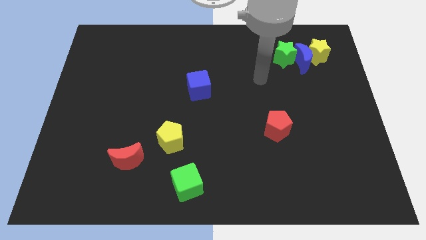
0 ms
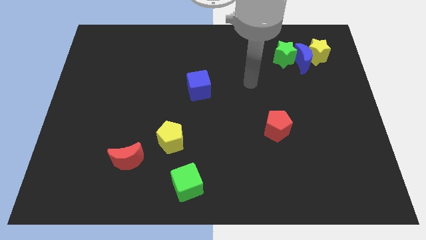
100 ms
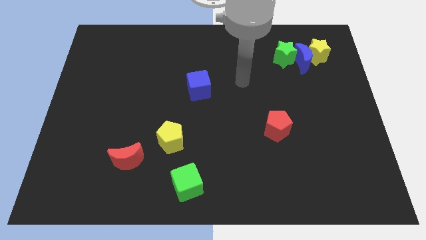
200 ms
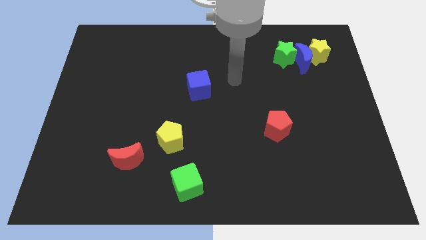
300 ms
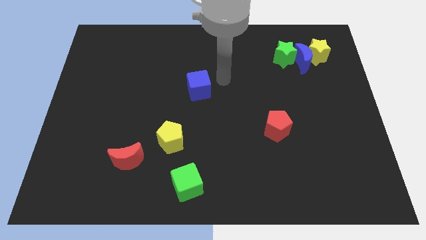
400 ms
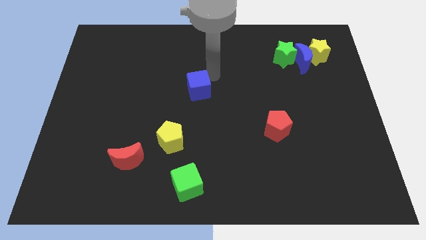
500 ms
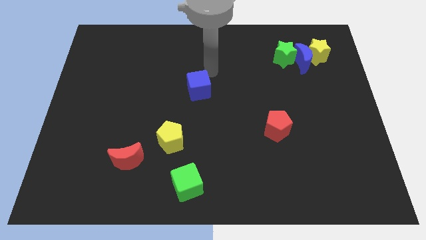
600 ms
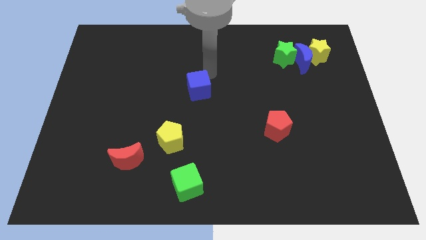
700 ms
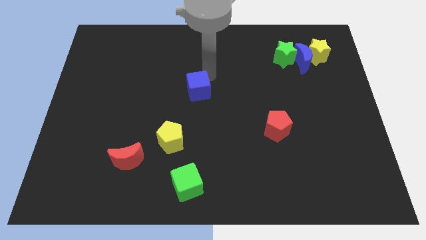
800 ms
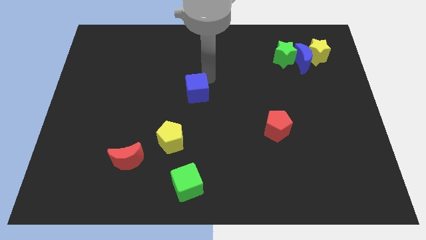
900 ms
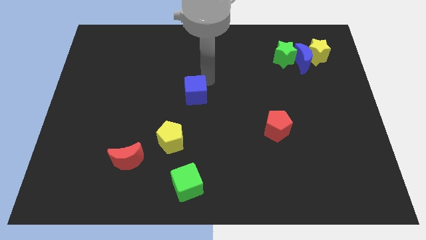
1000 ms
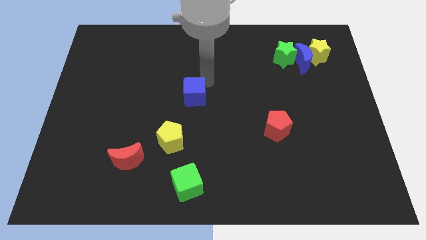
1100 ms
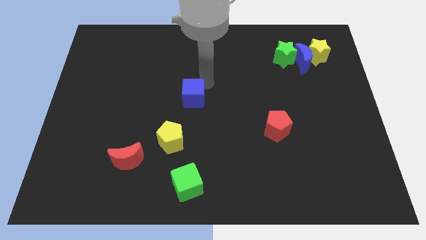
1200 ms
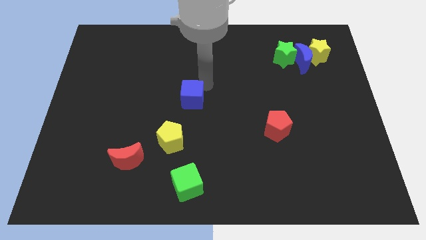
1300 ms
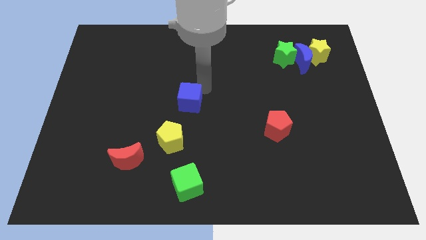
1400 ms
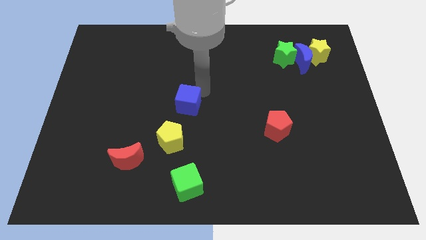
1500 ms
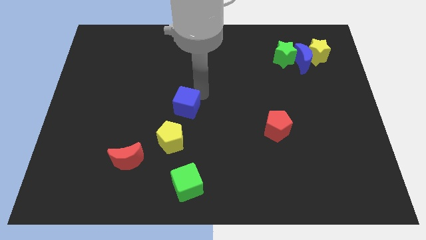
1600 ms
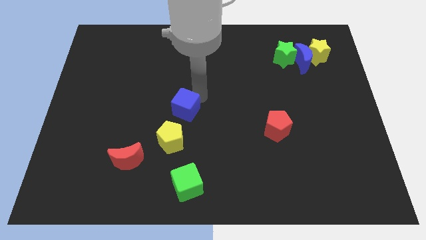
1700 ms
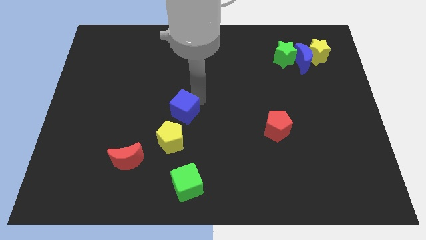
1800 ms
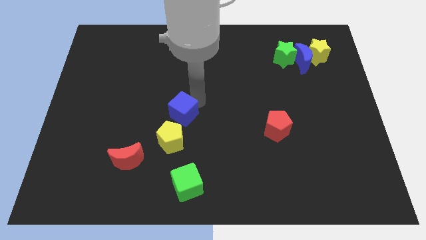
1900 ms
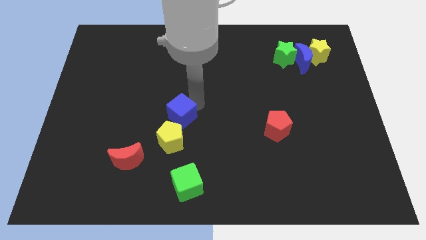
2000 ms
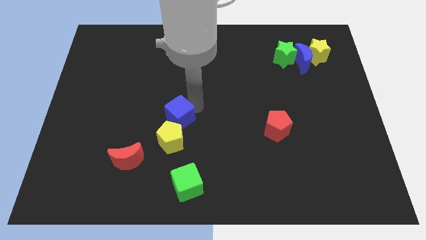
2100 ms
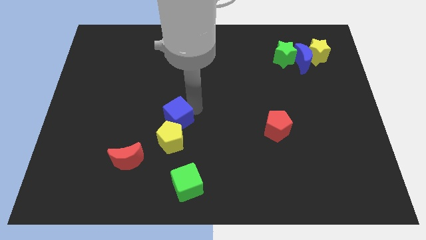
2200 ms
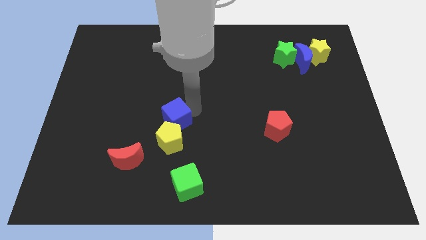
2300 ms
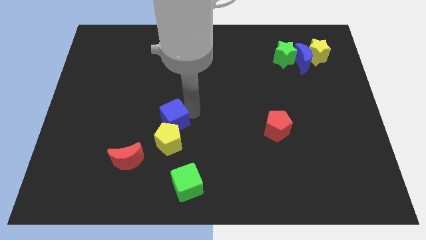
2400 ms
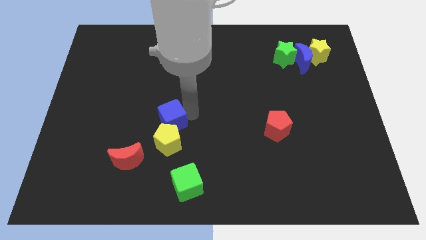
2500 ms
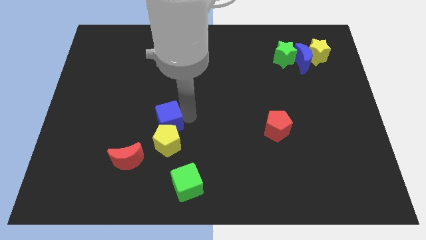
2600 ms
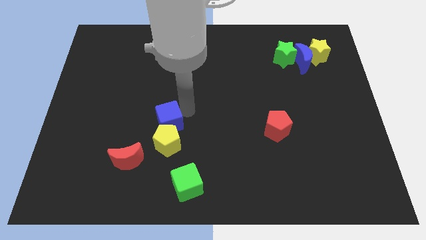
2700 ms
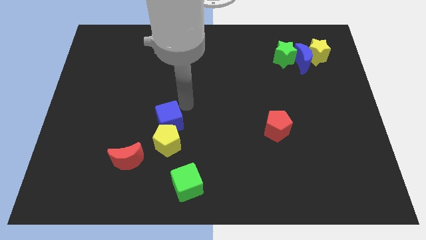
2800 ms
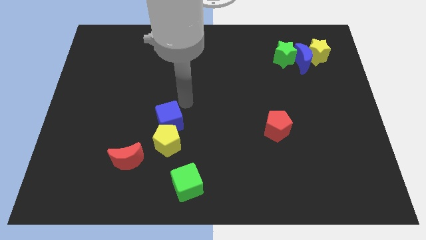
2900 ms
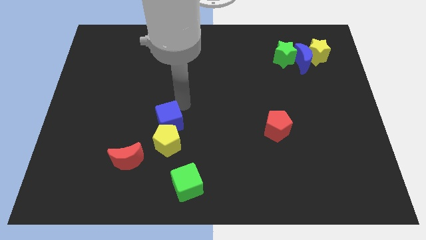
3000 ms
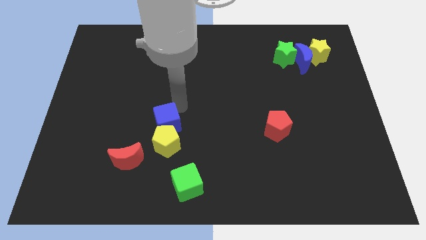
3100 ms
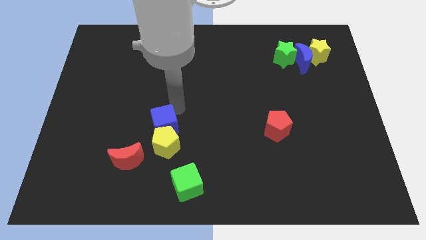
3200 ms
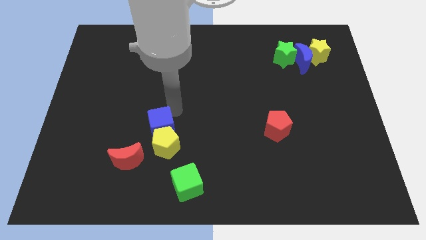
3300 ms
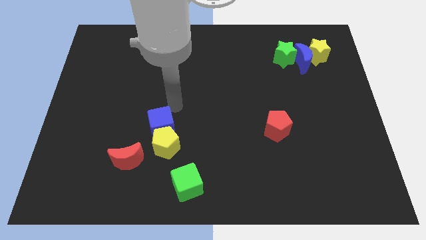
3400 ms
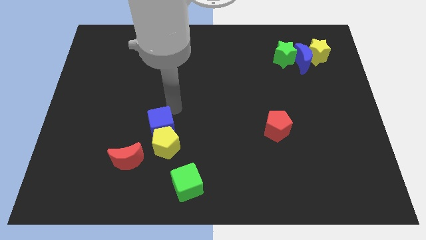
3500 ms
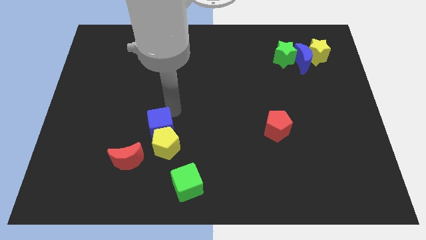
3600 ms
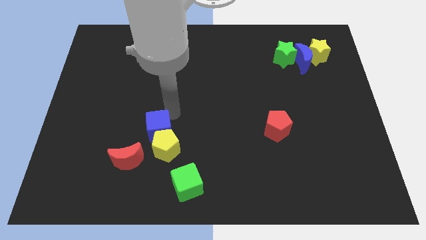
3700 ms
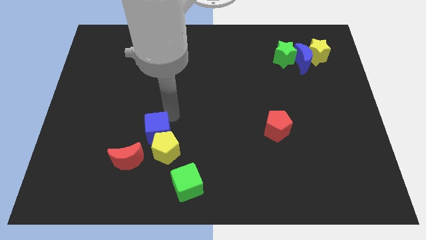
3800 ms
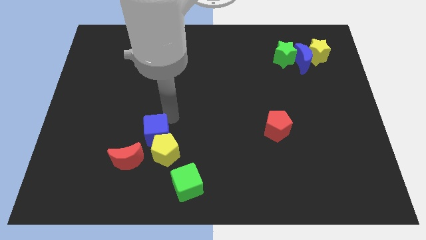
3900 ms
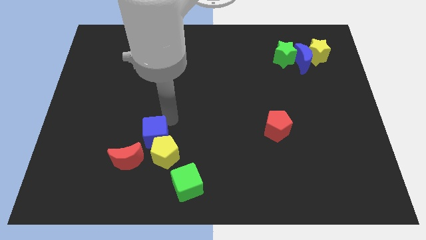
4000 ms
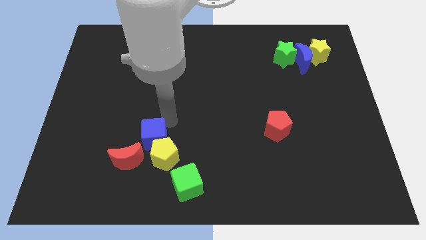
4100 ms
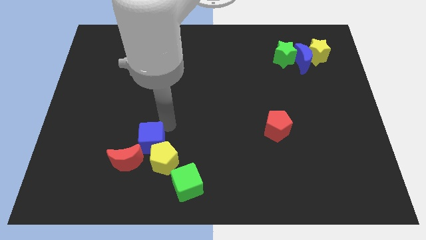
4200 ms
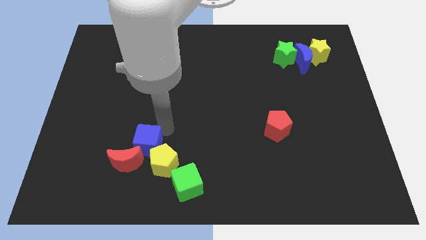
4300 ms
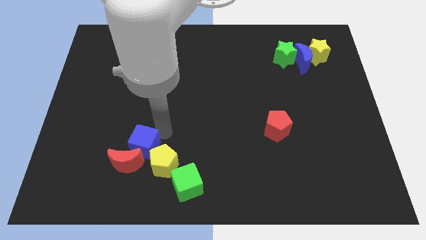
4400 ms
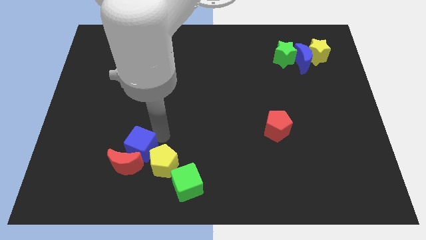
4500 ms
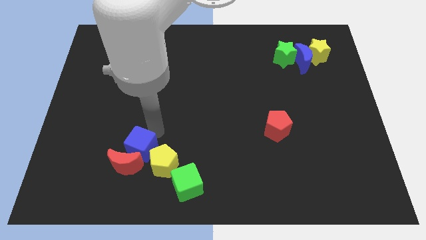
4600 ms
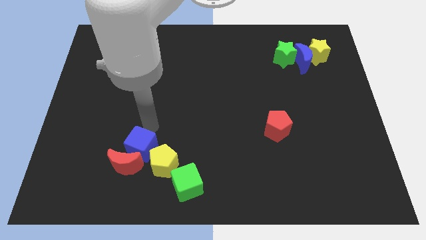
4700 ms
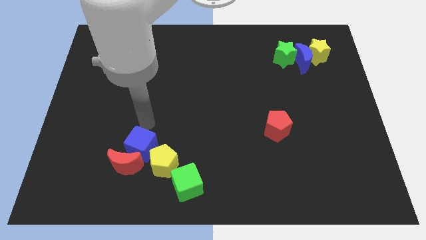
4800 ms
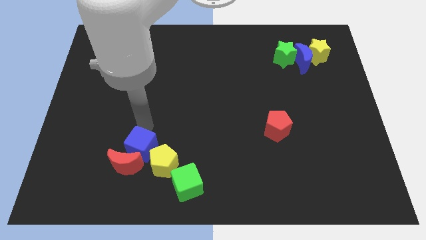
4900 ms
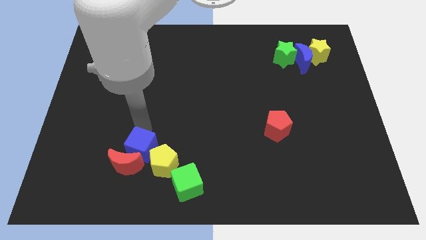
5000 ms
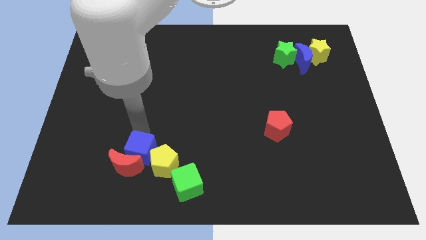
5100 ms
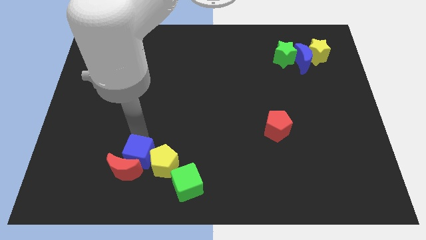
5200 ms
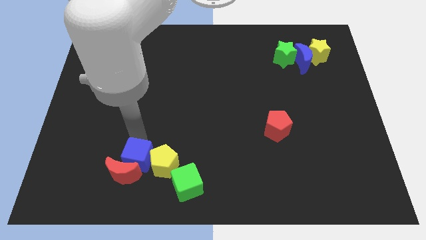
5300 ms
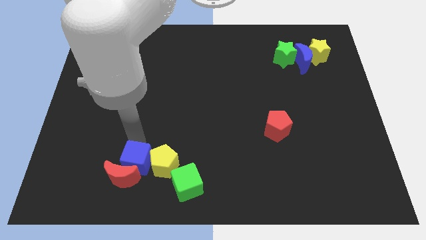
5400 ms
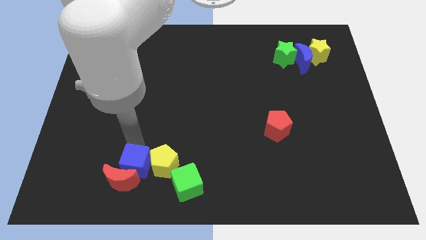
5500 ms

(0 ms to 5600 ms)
move the blue cube to the left of the green cube
